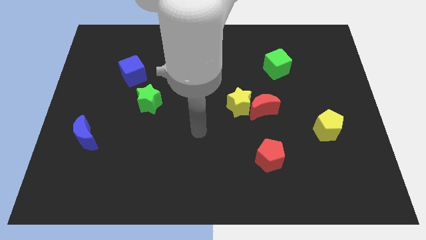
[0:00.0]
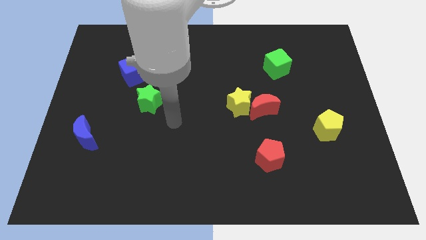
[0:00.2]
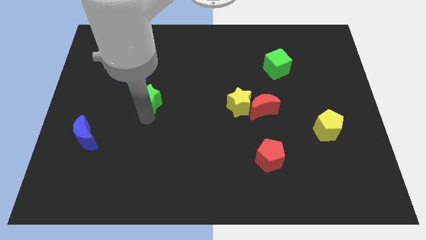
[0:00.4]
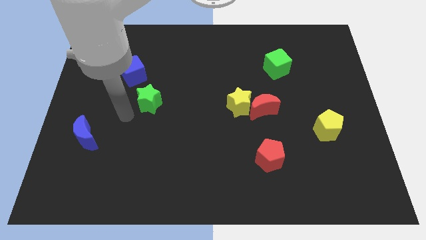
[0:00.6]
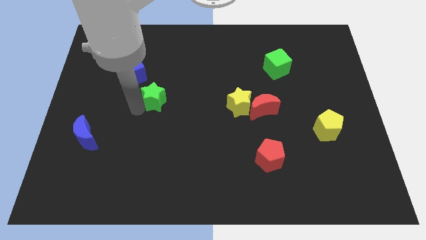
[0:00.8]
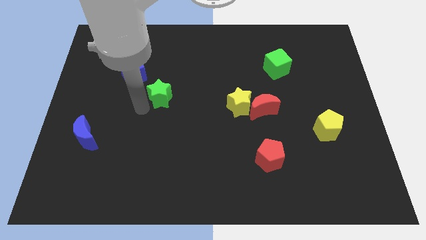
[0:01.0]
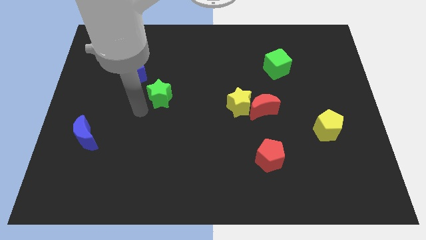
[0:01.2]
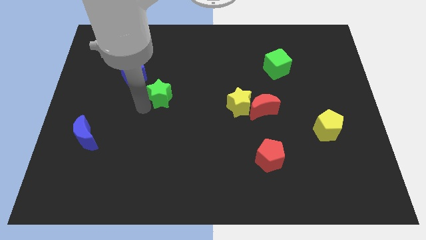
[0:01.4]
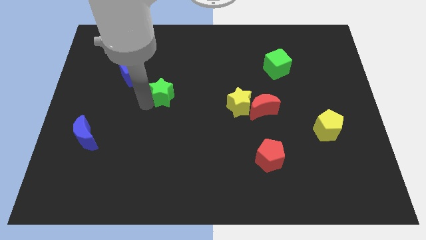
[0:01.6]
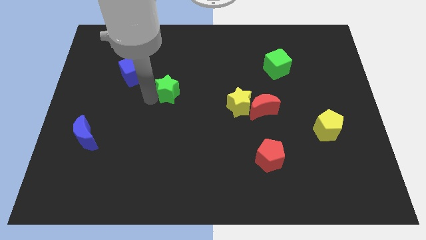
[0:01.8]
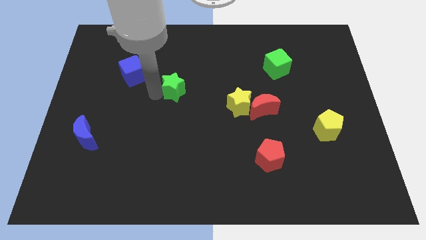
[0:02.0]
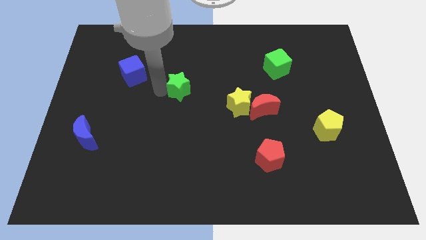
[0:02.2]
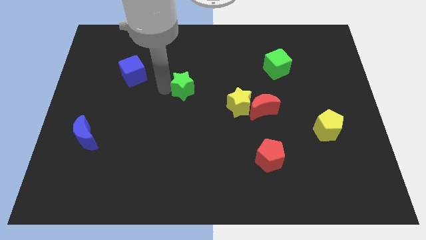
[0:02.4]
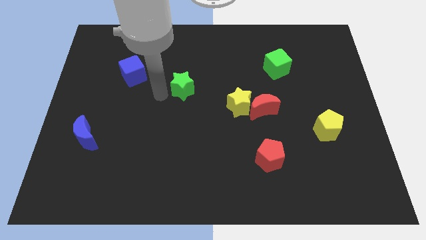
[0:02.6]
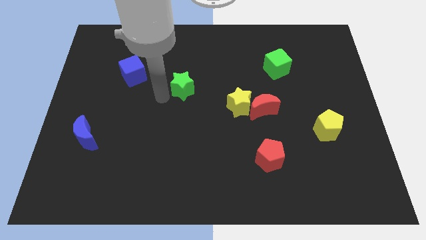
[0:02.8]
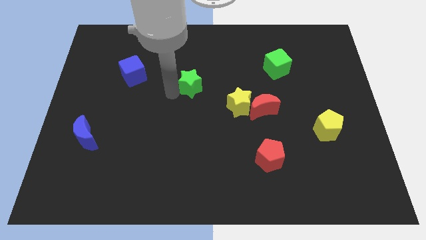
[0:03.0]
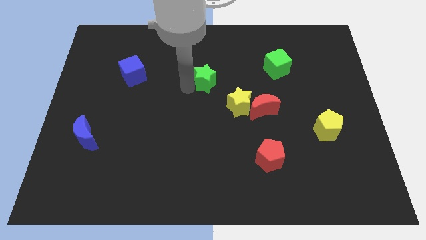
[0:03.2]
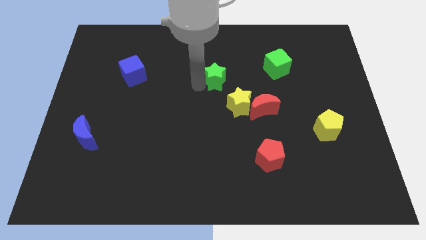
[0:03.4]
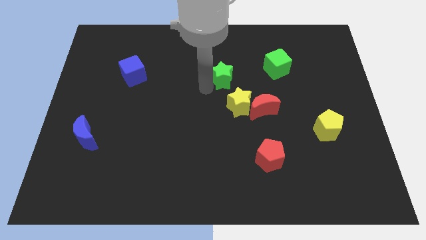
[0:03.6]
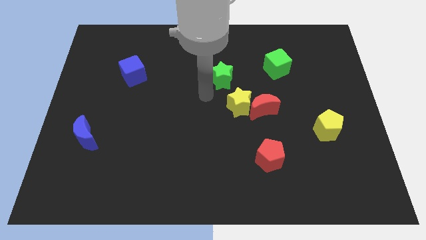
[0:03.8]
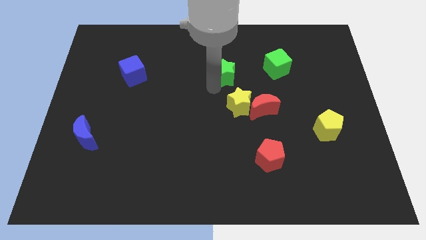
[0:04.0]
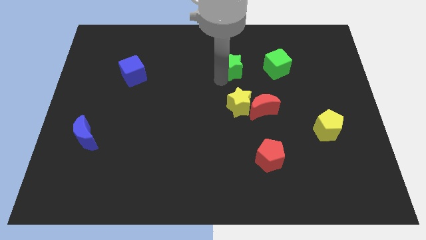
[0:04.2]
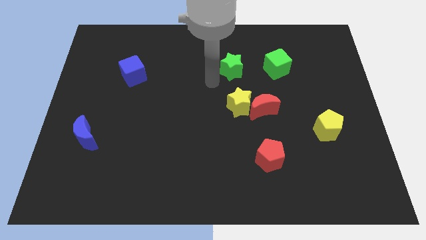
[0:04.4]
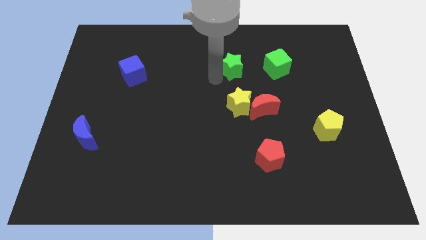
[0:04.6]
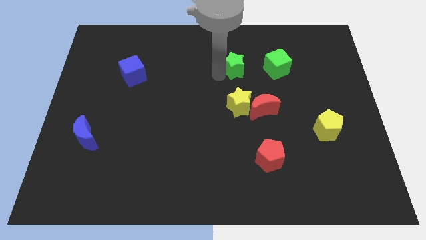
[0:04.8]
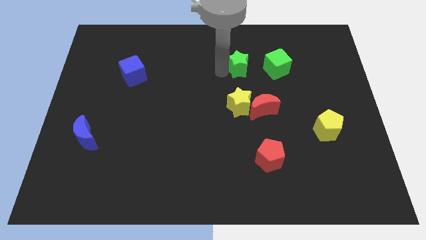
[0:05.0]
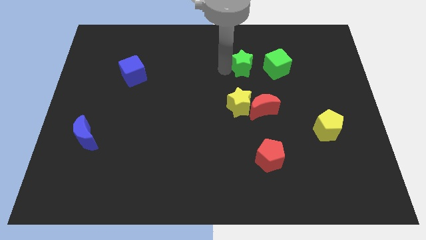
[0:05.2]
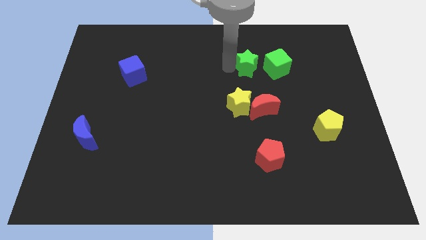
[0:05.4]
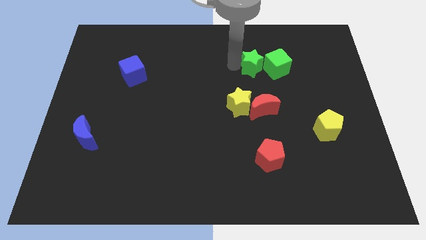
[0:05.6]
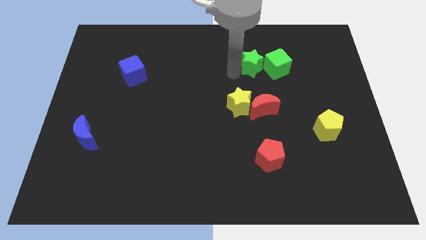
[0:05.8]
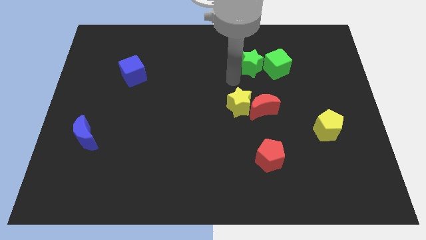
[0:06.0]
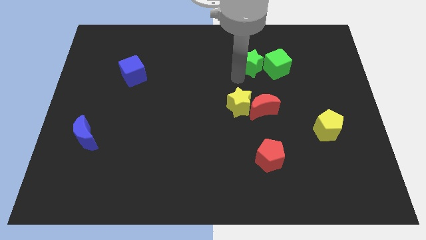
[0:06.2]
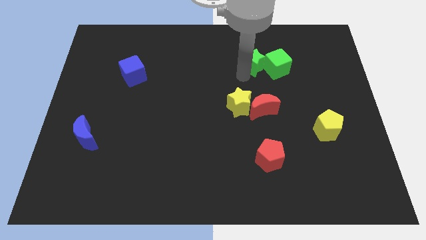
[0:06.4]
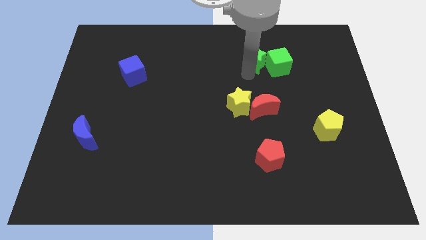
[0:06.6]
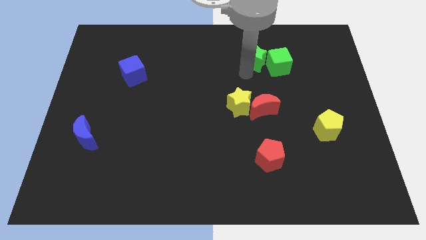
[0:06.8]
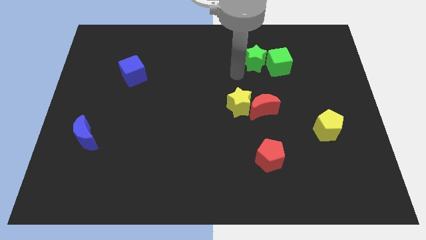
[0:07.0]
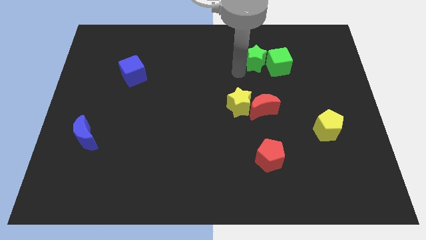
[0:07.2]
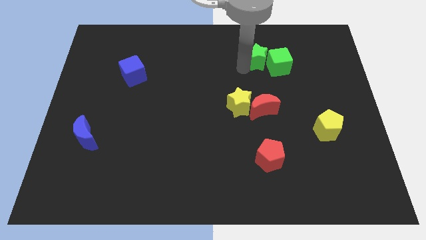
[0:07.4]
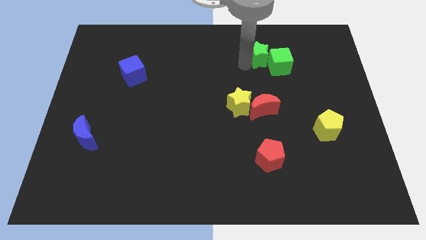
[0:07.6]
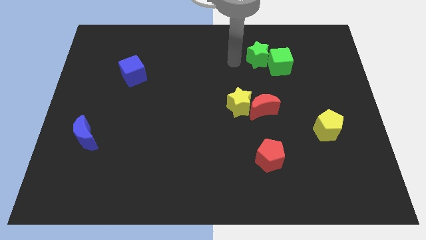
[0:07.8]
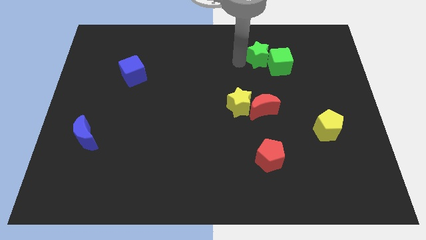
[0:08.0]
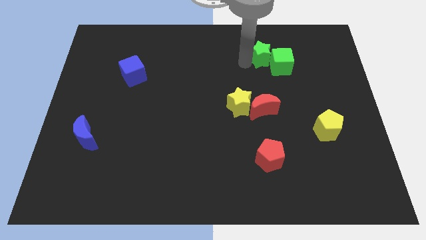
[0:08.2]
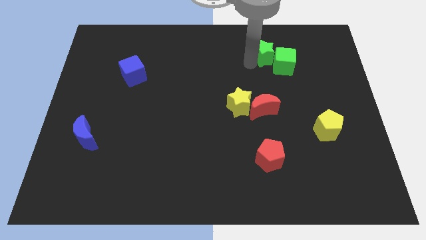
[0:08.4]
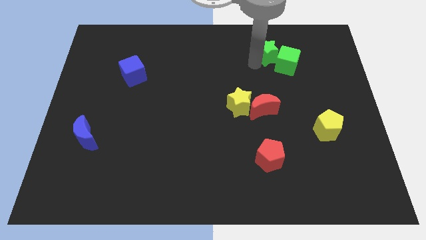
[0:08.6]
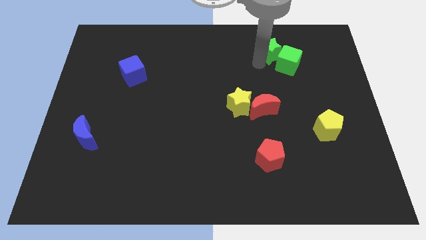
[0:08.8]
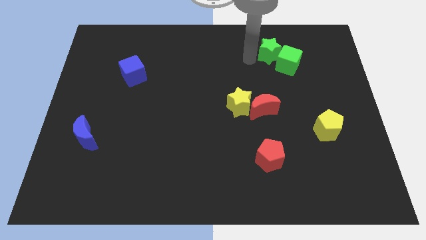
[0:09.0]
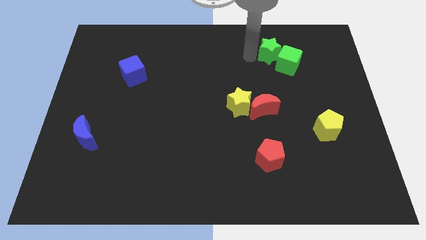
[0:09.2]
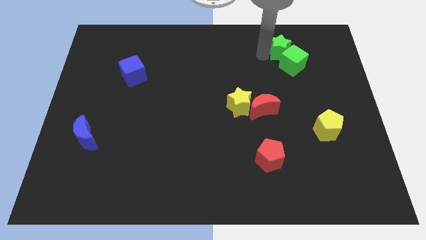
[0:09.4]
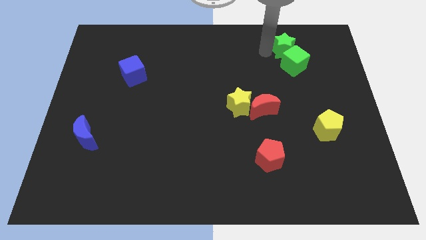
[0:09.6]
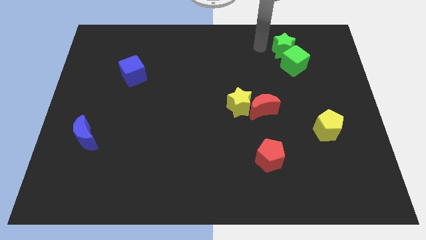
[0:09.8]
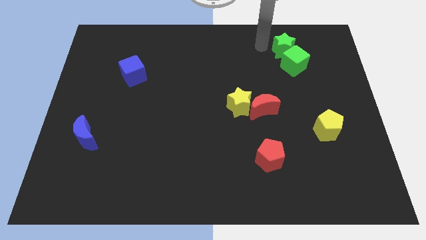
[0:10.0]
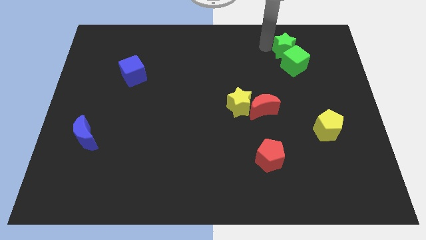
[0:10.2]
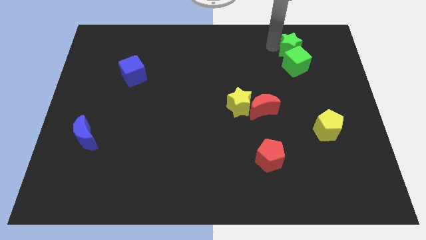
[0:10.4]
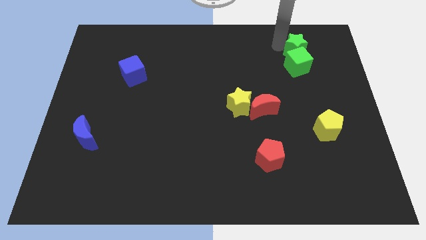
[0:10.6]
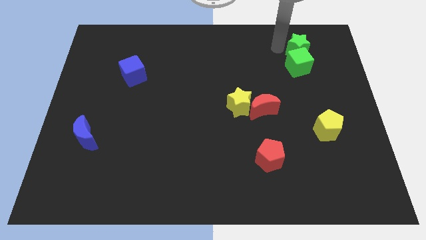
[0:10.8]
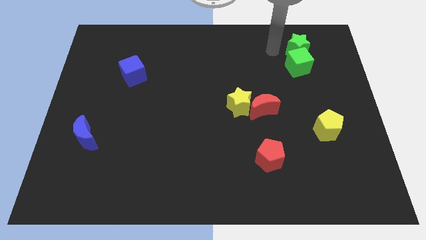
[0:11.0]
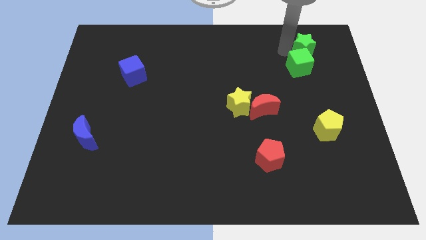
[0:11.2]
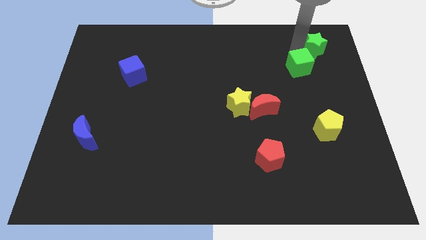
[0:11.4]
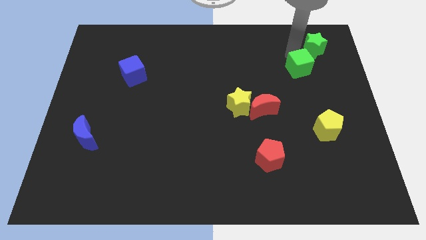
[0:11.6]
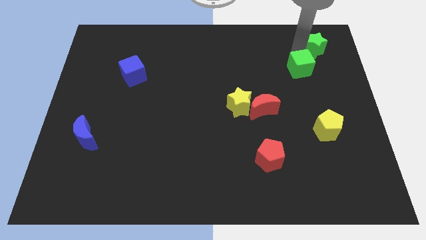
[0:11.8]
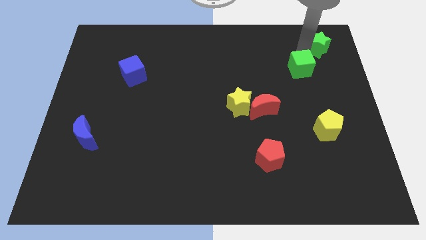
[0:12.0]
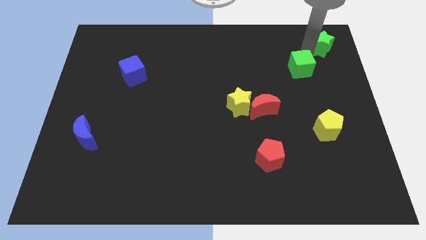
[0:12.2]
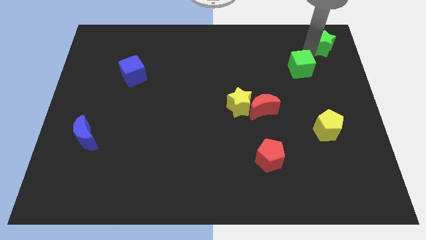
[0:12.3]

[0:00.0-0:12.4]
move the green star to the upper right corner
